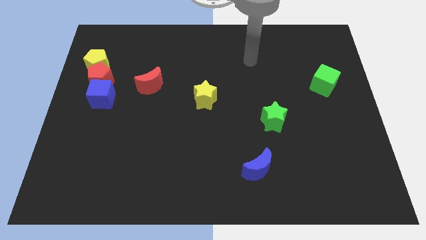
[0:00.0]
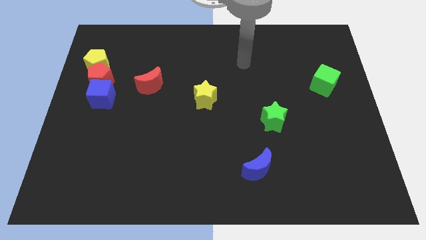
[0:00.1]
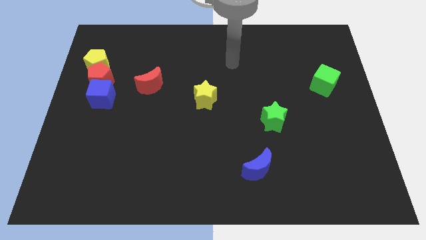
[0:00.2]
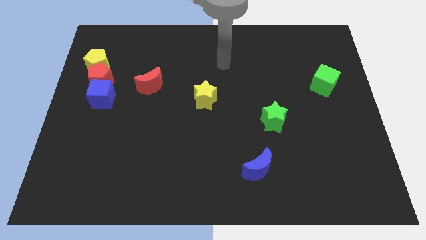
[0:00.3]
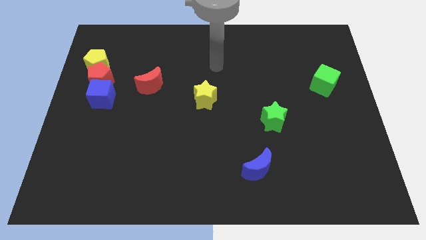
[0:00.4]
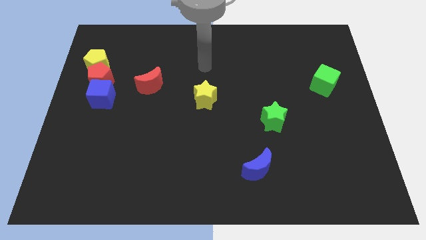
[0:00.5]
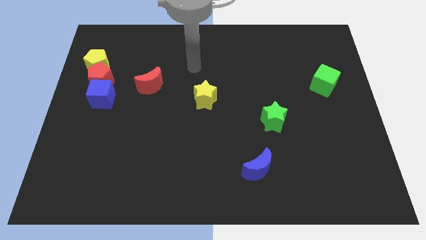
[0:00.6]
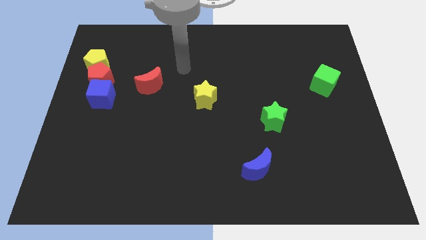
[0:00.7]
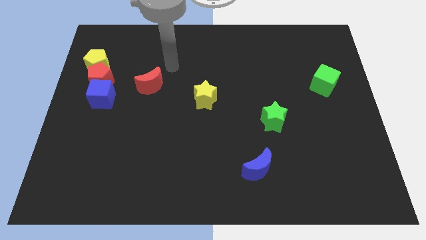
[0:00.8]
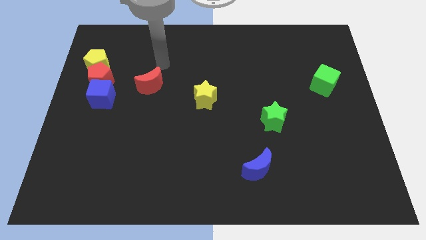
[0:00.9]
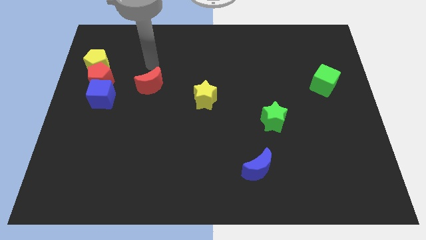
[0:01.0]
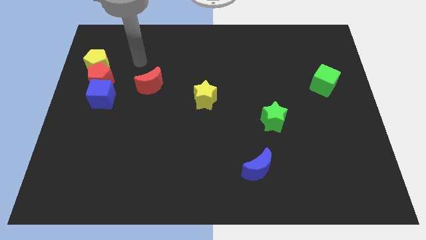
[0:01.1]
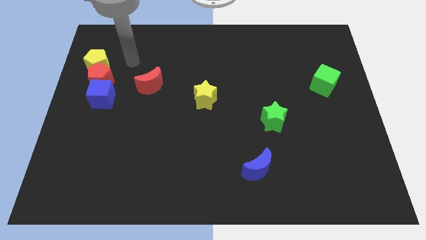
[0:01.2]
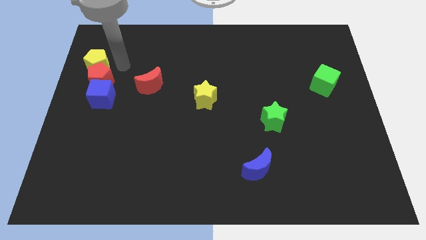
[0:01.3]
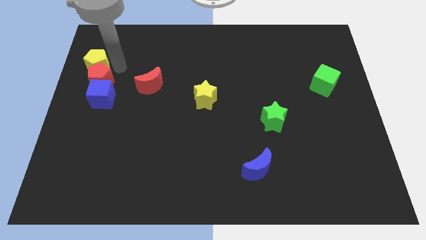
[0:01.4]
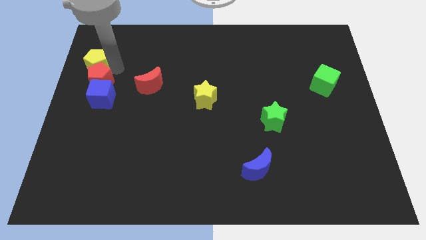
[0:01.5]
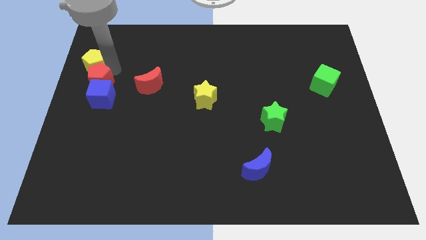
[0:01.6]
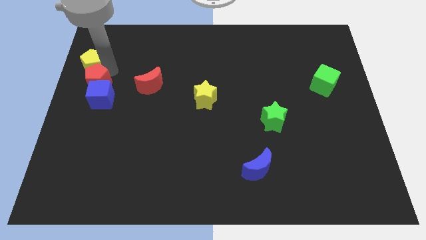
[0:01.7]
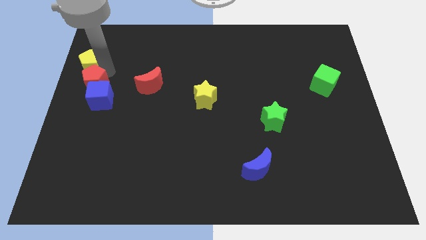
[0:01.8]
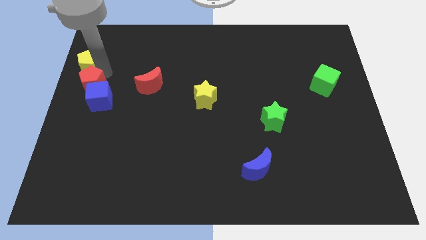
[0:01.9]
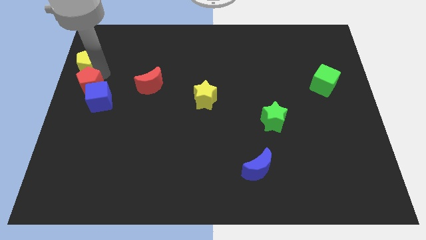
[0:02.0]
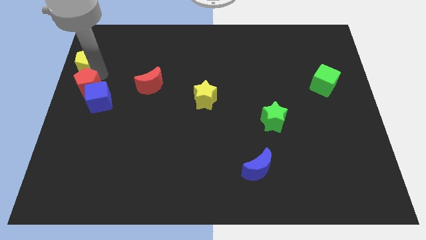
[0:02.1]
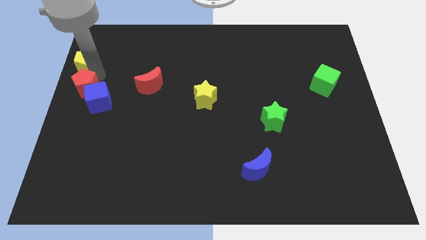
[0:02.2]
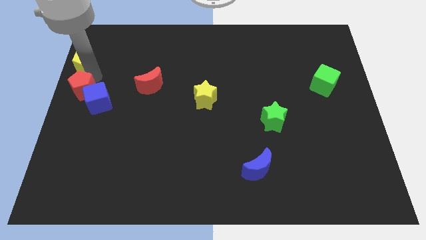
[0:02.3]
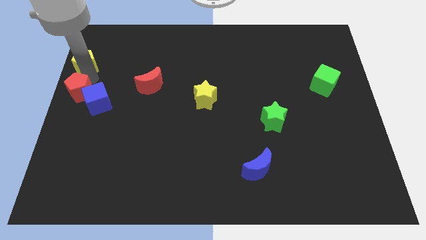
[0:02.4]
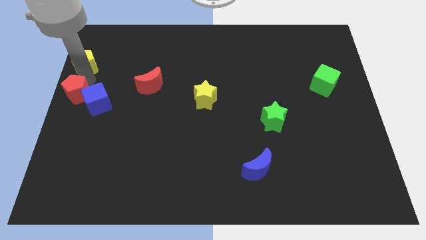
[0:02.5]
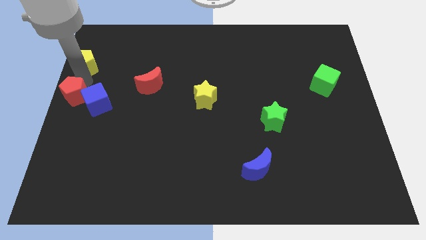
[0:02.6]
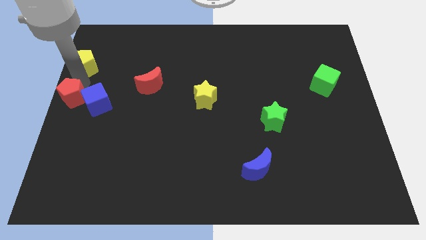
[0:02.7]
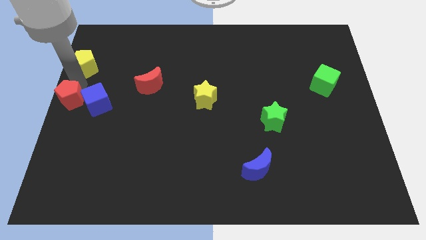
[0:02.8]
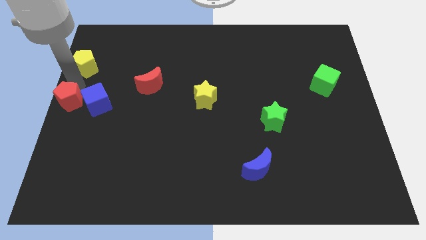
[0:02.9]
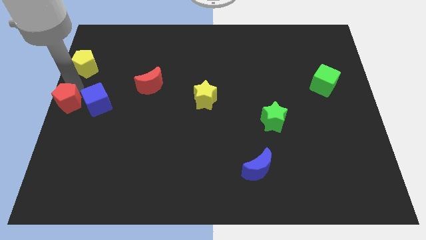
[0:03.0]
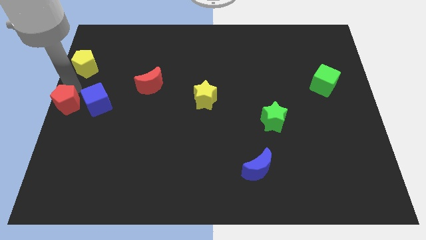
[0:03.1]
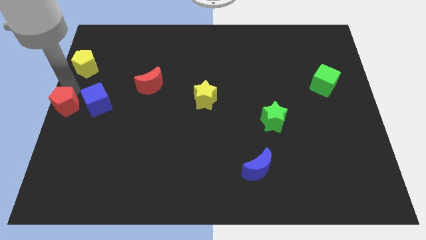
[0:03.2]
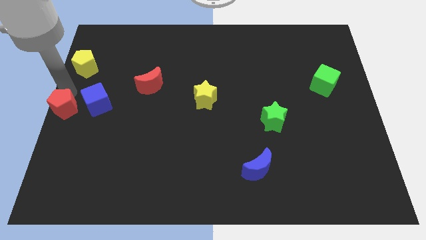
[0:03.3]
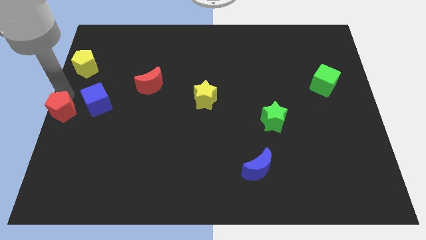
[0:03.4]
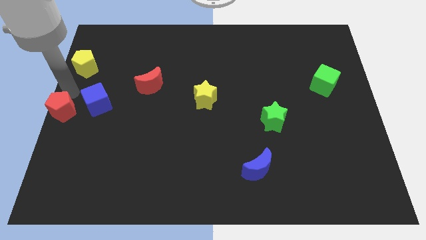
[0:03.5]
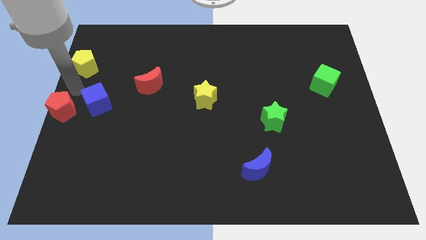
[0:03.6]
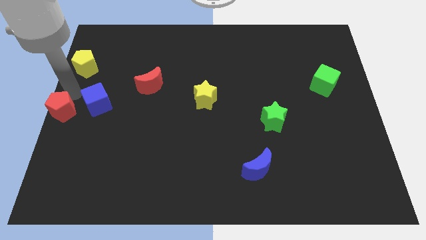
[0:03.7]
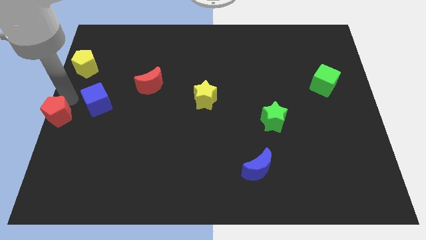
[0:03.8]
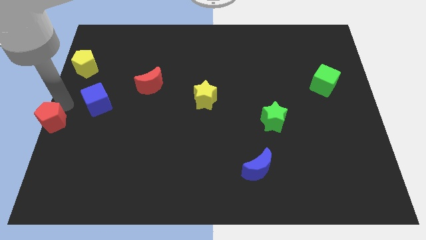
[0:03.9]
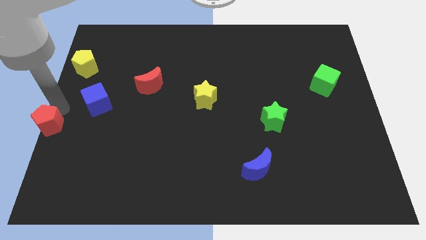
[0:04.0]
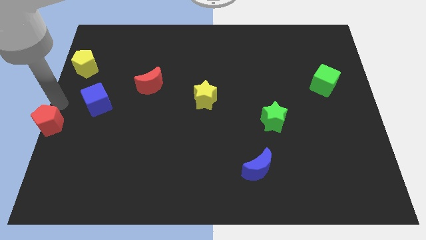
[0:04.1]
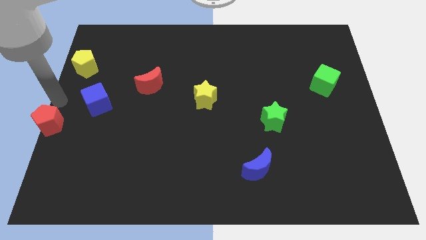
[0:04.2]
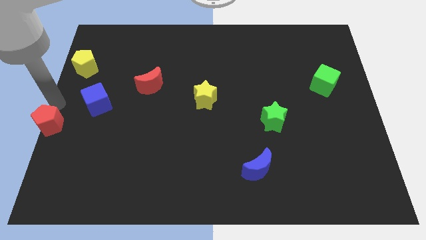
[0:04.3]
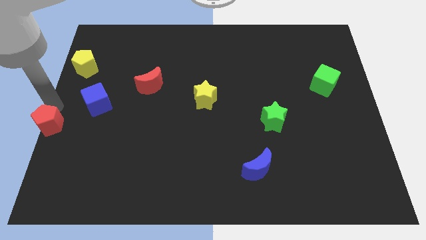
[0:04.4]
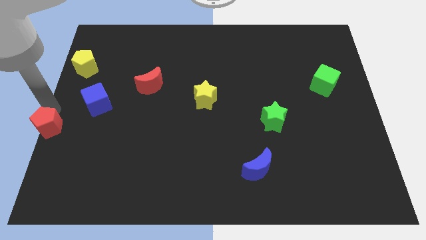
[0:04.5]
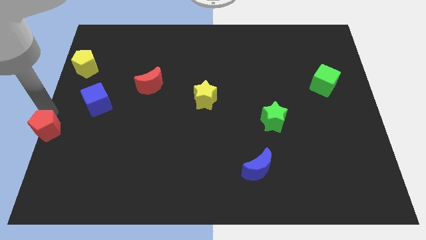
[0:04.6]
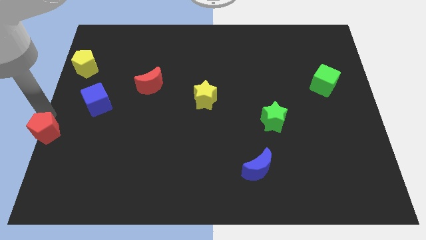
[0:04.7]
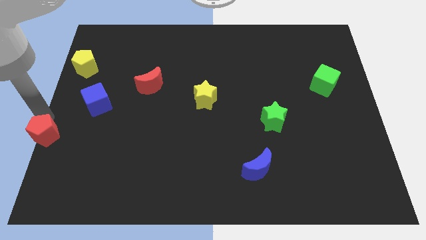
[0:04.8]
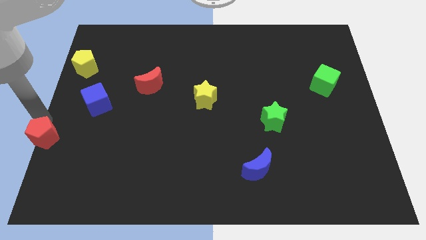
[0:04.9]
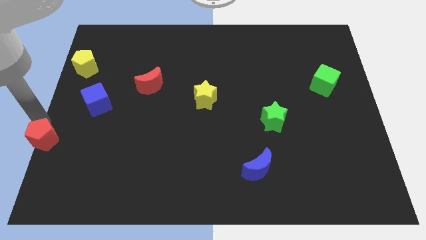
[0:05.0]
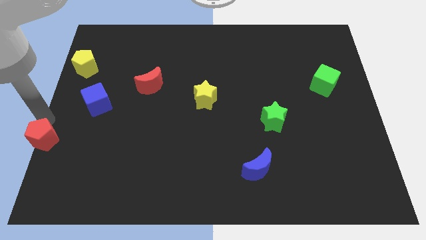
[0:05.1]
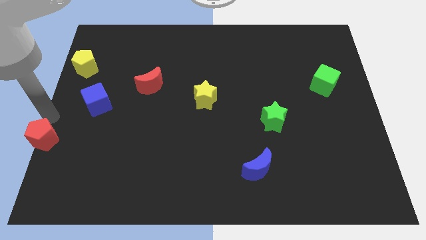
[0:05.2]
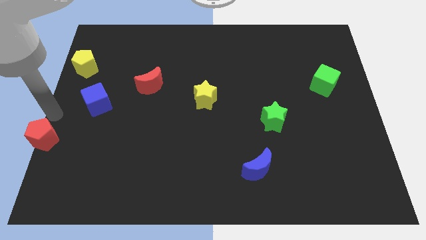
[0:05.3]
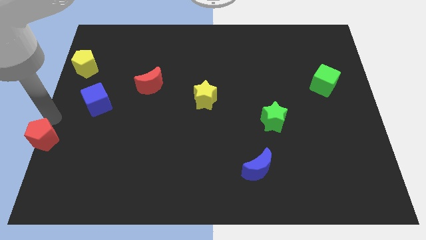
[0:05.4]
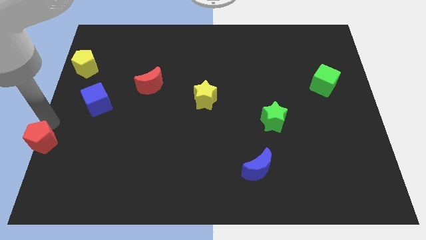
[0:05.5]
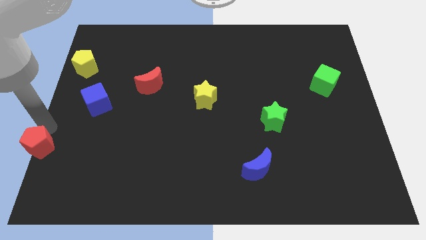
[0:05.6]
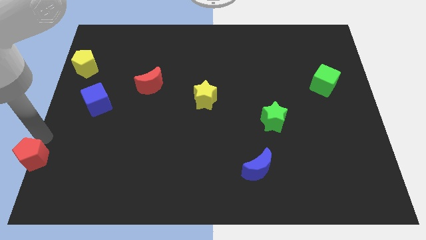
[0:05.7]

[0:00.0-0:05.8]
move the red pentagon to the lower left corner
